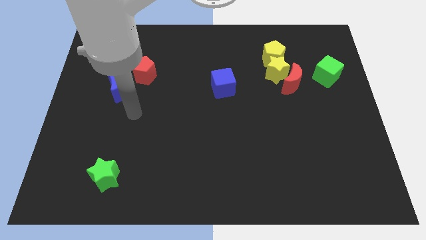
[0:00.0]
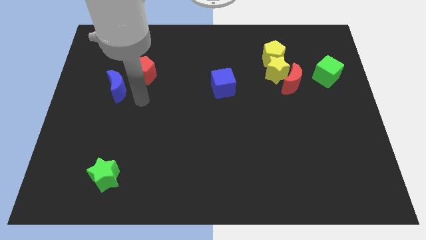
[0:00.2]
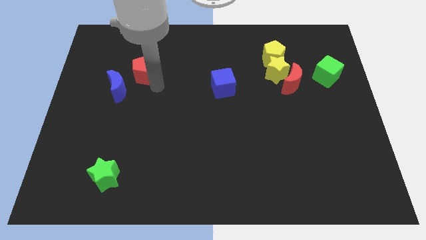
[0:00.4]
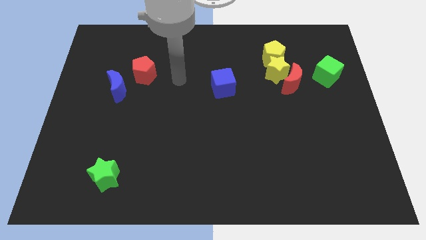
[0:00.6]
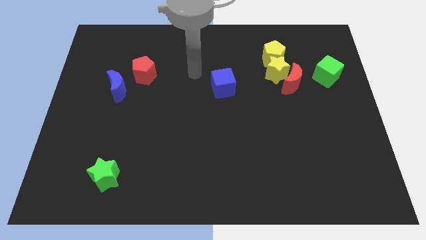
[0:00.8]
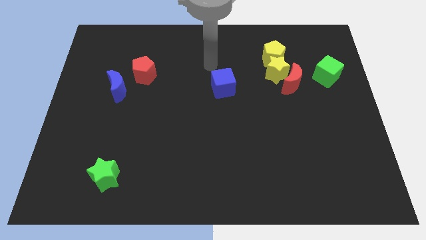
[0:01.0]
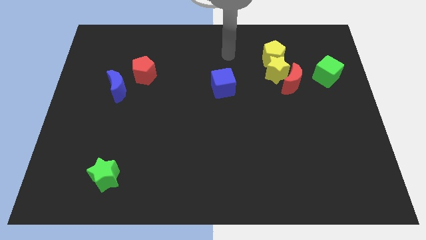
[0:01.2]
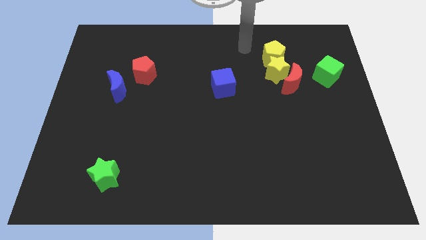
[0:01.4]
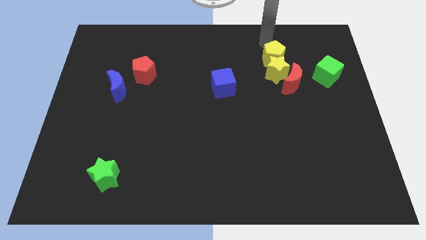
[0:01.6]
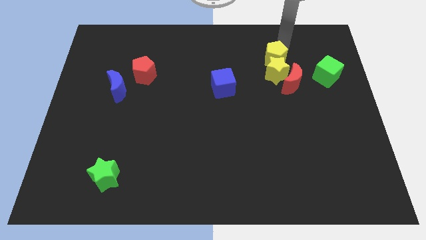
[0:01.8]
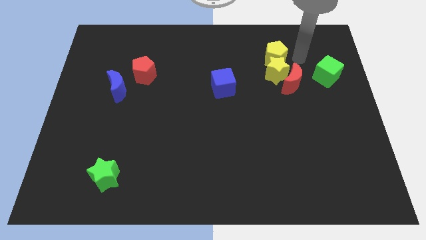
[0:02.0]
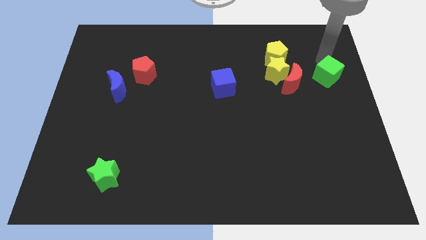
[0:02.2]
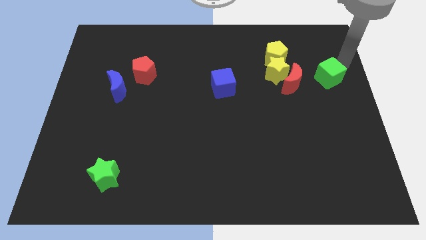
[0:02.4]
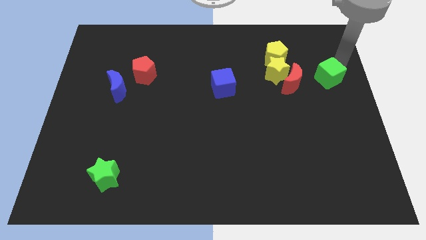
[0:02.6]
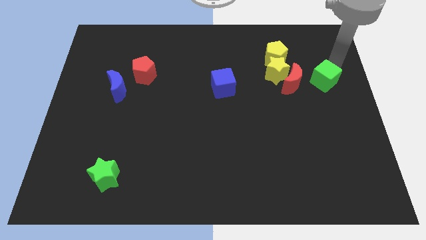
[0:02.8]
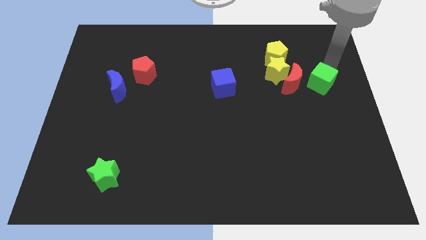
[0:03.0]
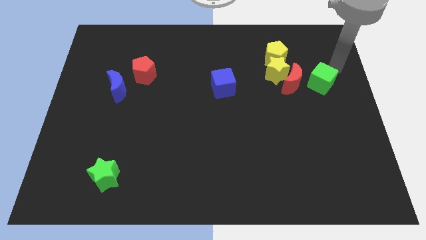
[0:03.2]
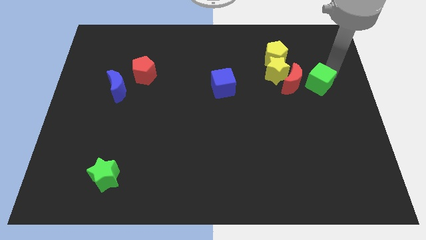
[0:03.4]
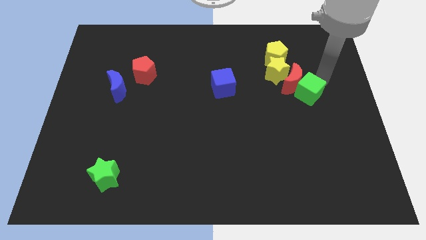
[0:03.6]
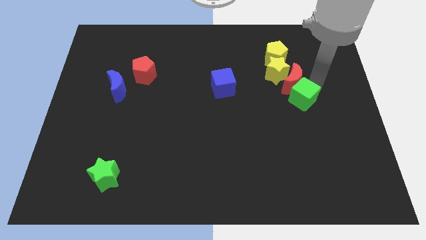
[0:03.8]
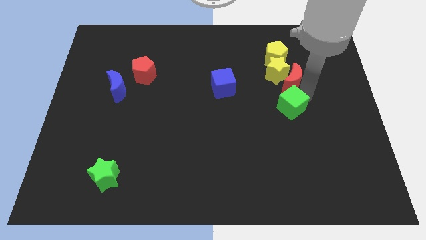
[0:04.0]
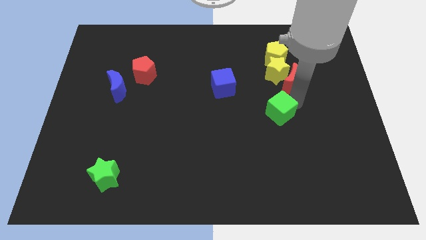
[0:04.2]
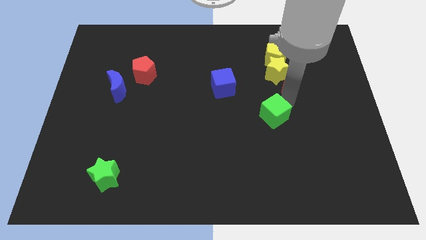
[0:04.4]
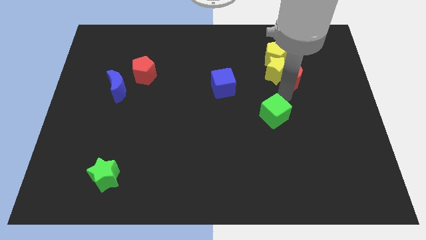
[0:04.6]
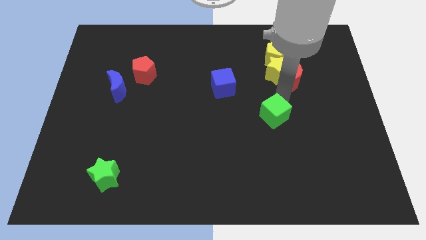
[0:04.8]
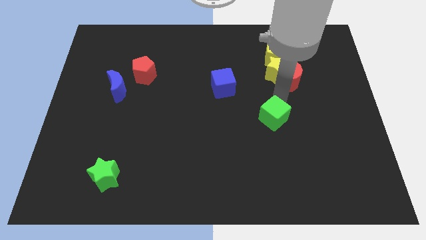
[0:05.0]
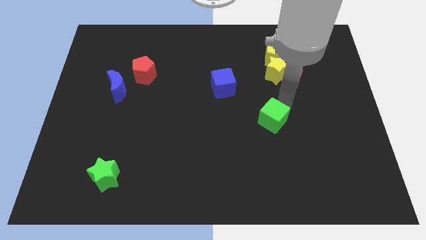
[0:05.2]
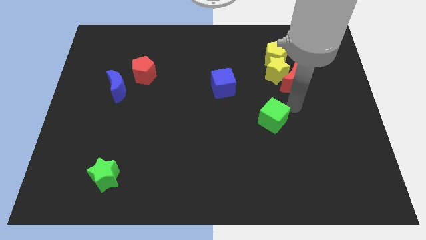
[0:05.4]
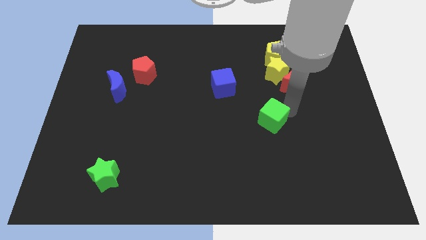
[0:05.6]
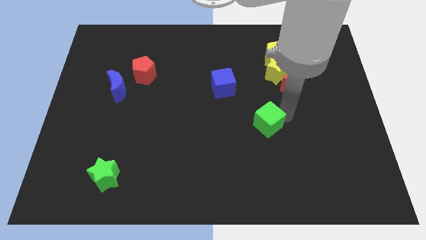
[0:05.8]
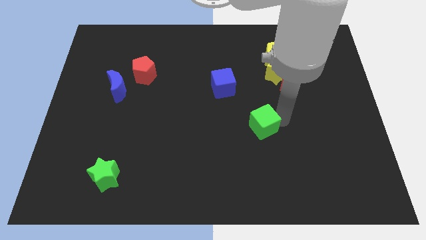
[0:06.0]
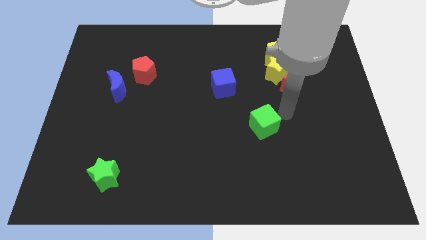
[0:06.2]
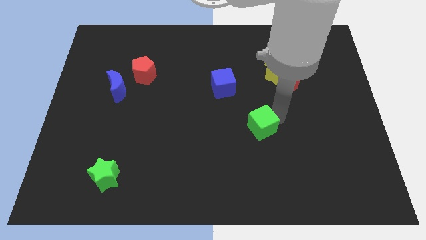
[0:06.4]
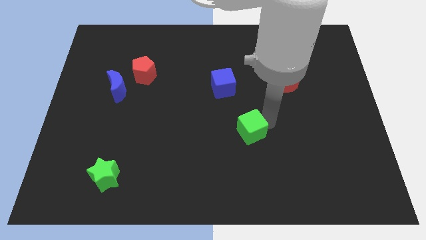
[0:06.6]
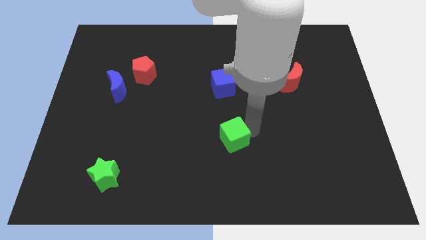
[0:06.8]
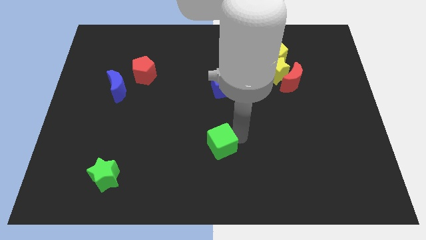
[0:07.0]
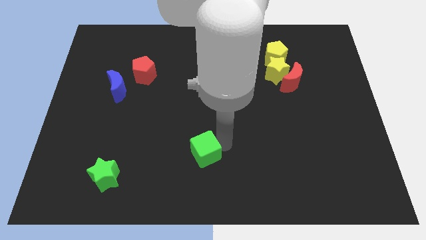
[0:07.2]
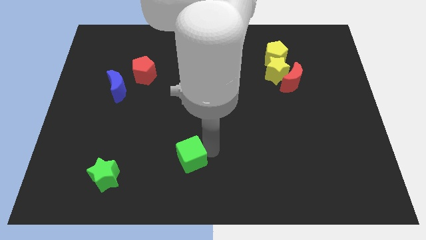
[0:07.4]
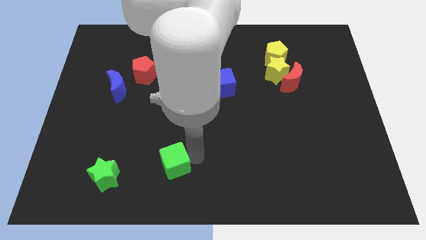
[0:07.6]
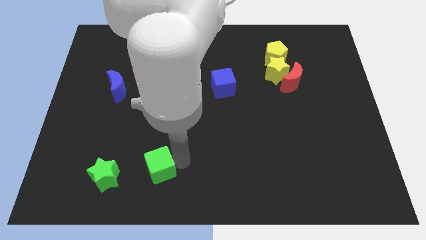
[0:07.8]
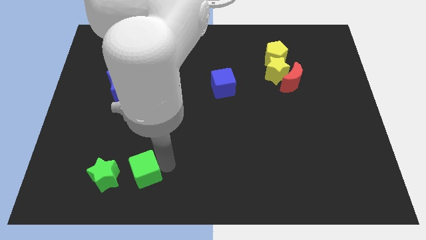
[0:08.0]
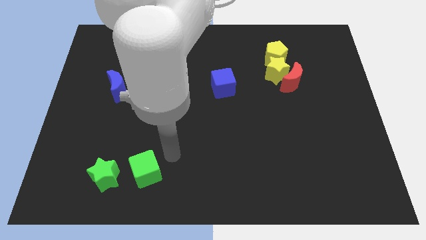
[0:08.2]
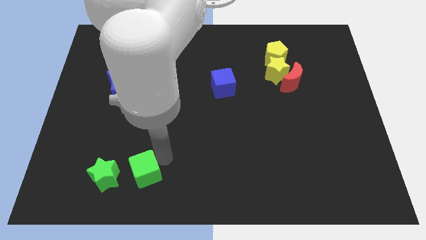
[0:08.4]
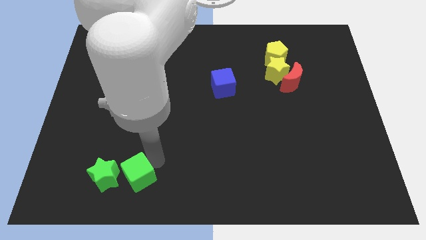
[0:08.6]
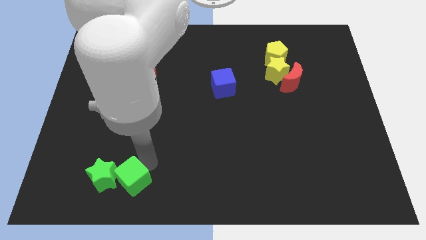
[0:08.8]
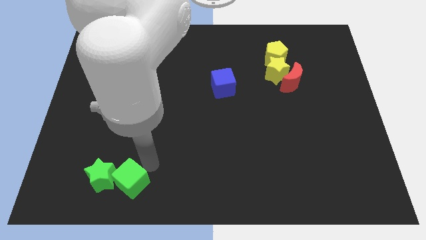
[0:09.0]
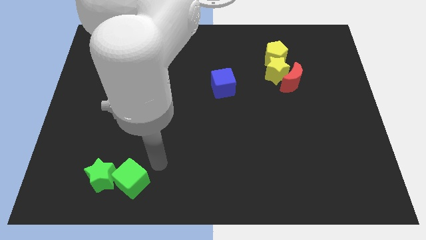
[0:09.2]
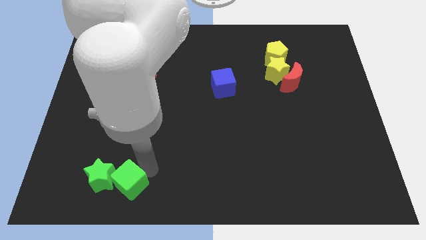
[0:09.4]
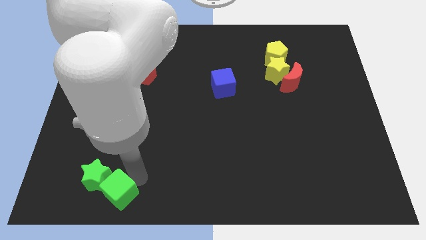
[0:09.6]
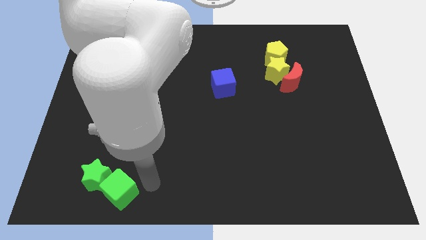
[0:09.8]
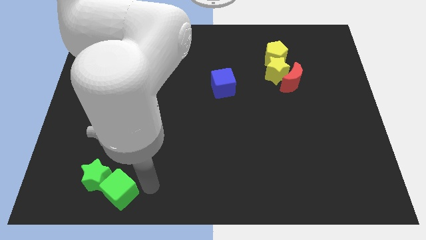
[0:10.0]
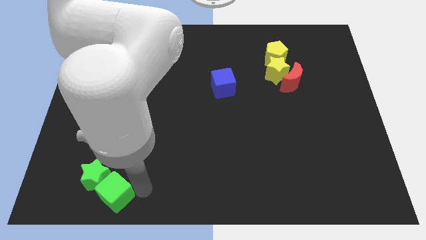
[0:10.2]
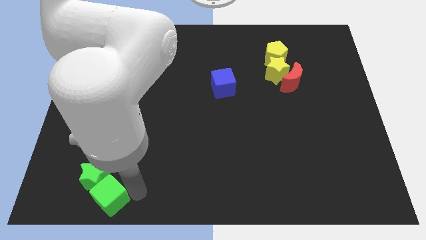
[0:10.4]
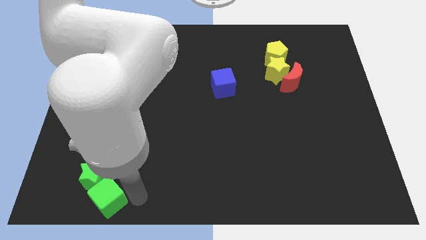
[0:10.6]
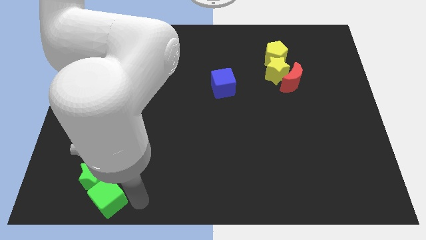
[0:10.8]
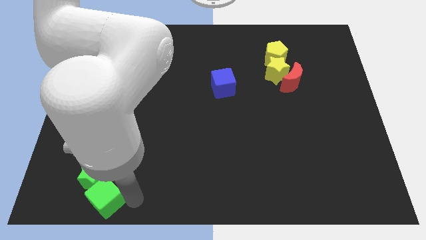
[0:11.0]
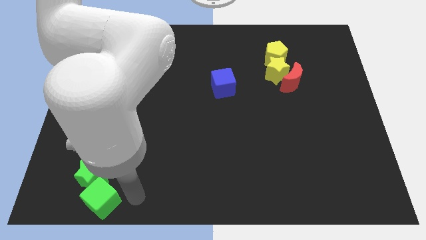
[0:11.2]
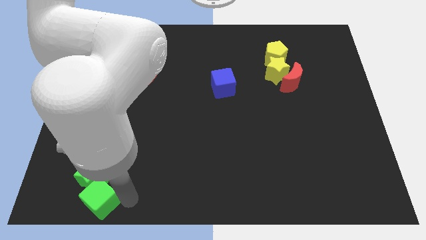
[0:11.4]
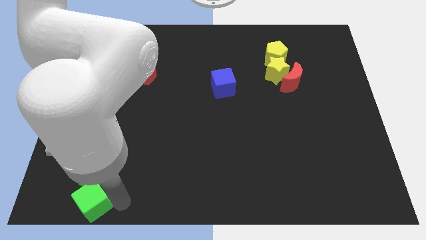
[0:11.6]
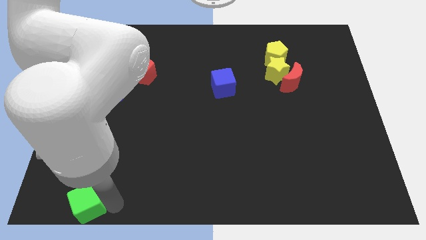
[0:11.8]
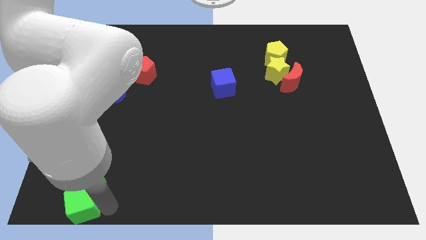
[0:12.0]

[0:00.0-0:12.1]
put the green cube to the bottom left

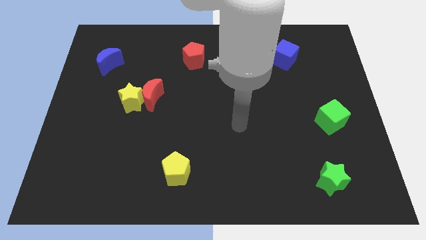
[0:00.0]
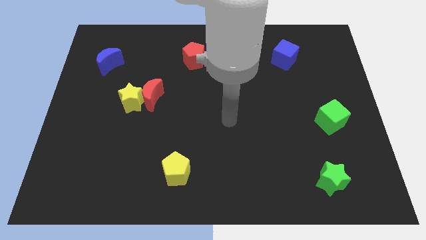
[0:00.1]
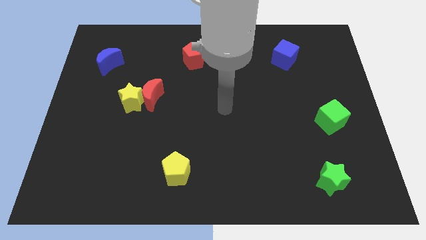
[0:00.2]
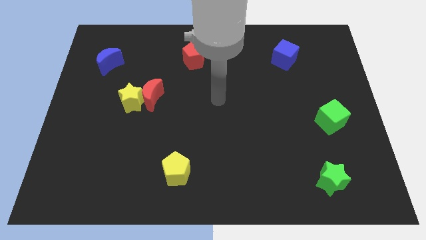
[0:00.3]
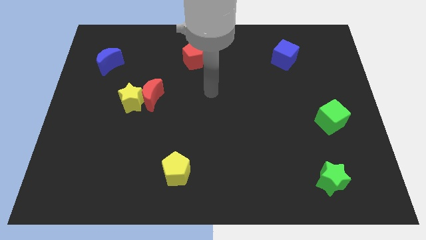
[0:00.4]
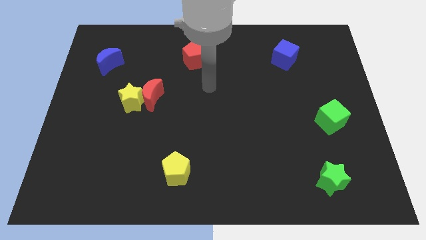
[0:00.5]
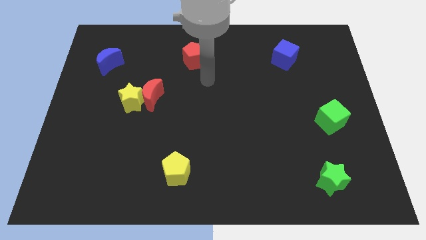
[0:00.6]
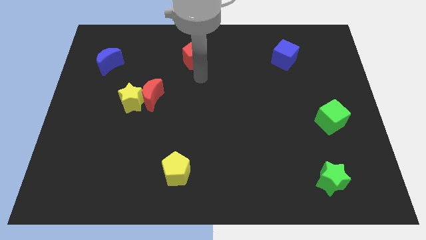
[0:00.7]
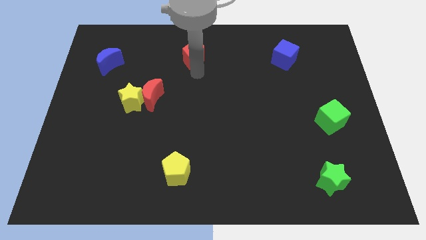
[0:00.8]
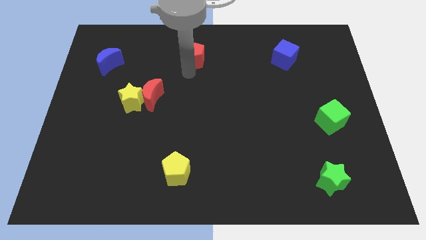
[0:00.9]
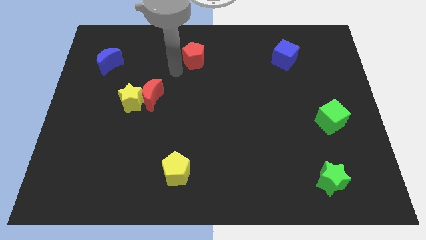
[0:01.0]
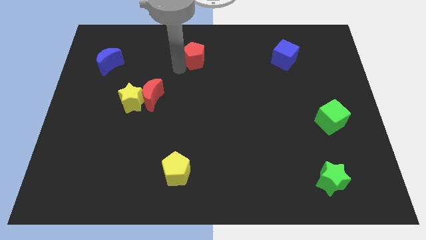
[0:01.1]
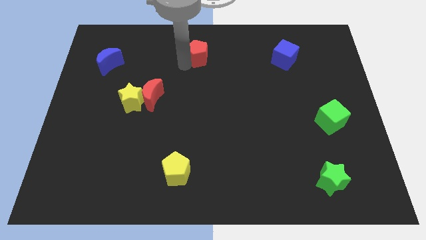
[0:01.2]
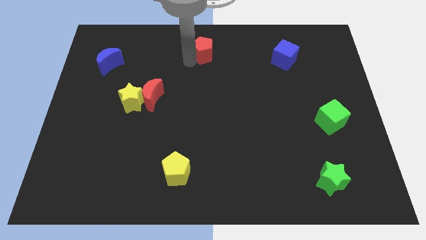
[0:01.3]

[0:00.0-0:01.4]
move the red pentagon to the top
